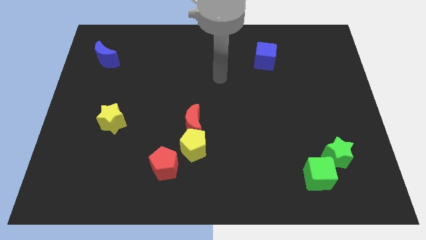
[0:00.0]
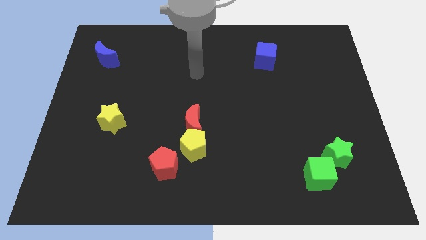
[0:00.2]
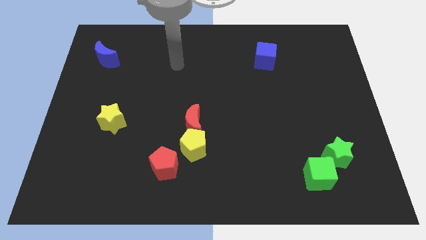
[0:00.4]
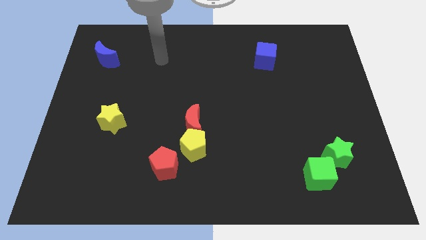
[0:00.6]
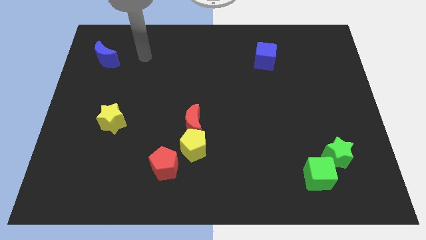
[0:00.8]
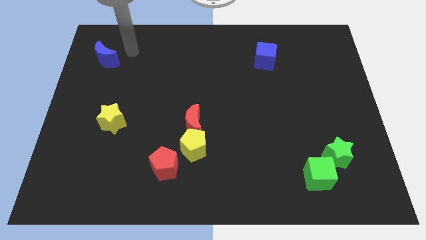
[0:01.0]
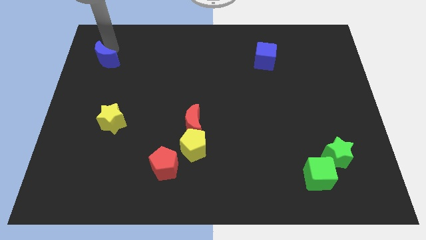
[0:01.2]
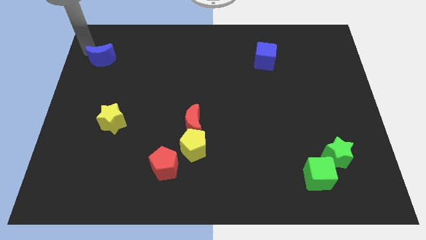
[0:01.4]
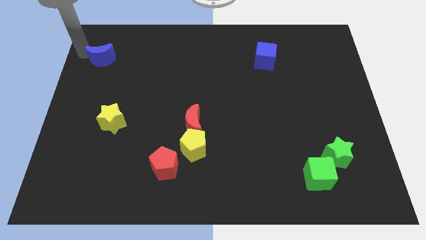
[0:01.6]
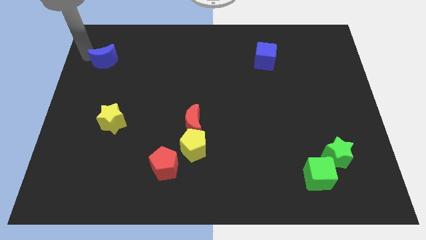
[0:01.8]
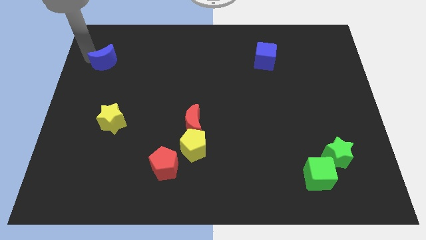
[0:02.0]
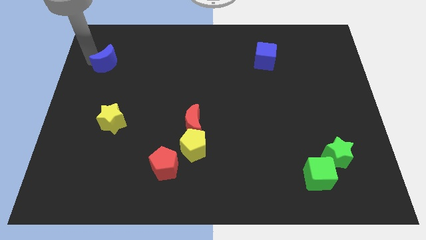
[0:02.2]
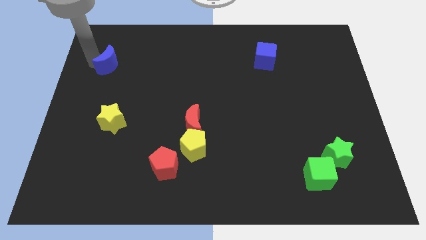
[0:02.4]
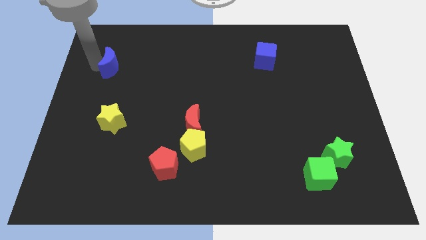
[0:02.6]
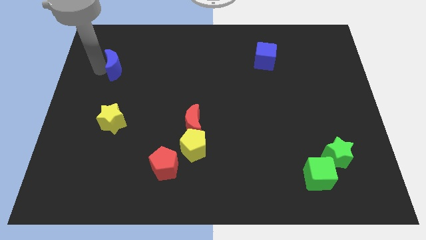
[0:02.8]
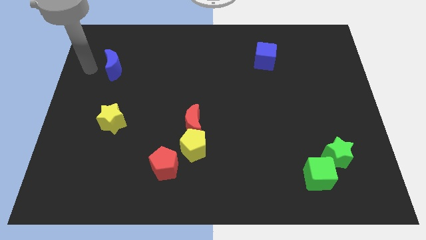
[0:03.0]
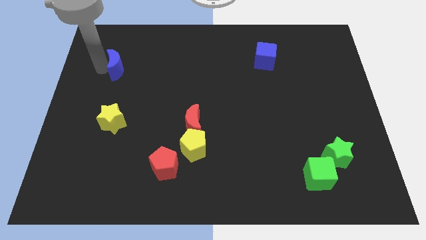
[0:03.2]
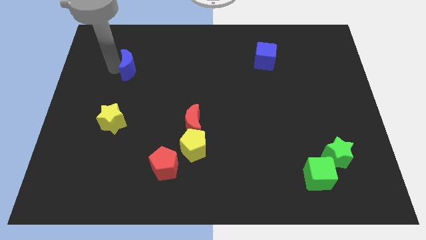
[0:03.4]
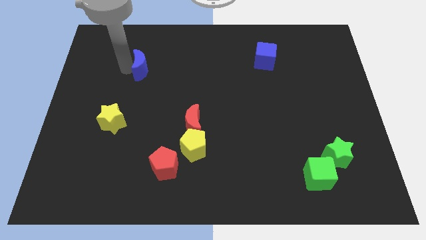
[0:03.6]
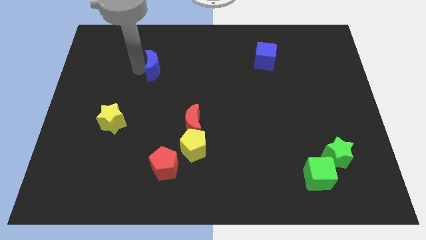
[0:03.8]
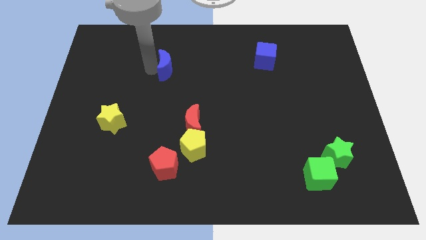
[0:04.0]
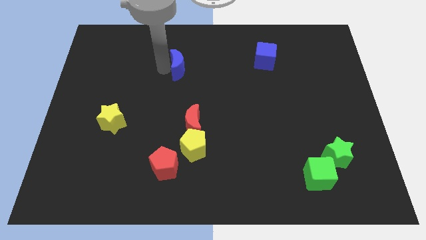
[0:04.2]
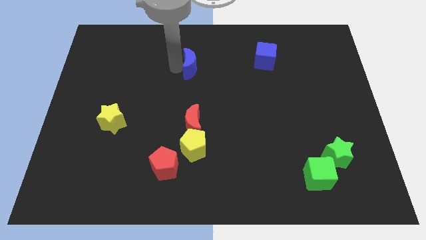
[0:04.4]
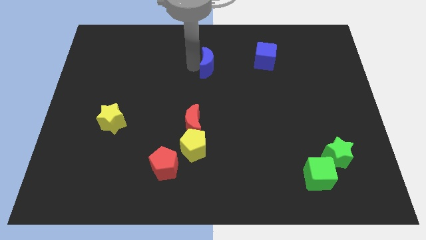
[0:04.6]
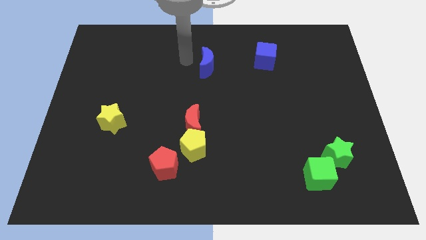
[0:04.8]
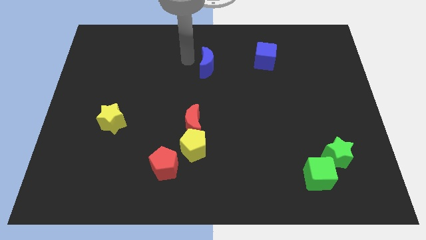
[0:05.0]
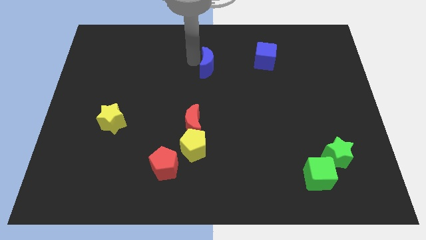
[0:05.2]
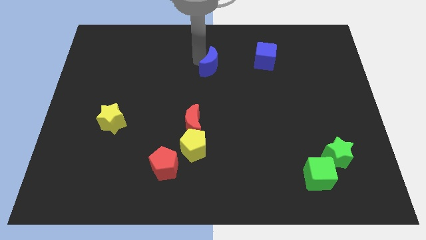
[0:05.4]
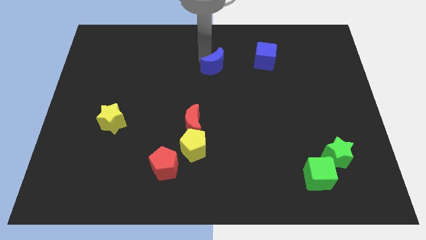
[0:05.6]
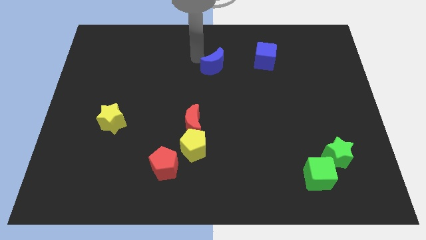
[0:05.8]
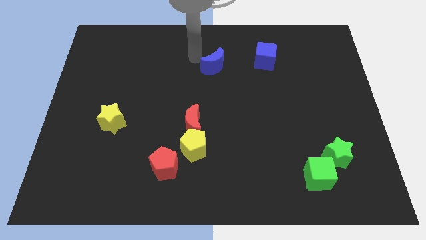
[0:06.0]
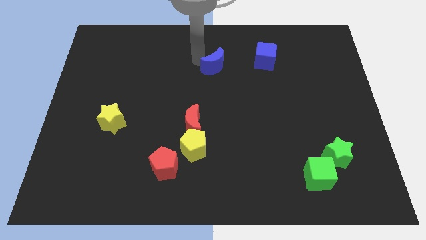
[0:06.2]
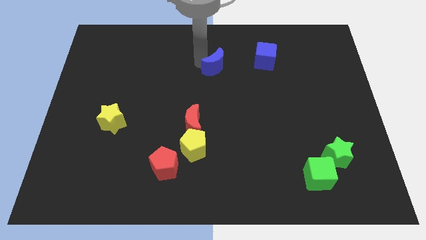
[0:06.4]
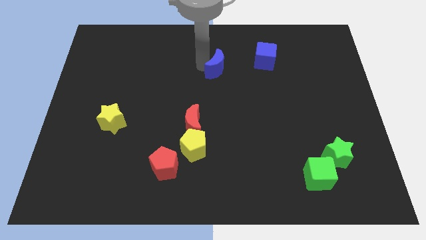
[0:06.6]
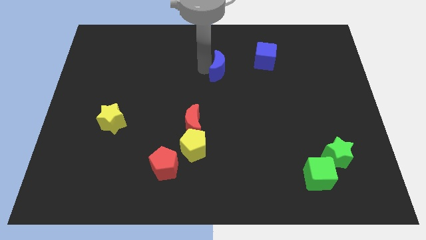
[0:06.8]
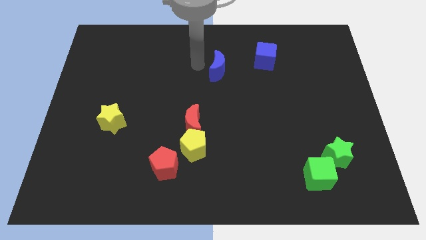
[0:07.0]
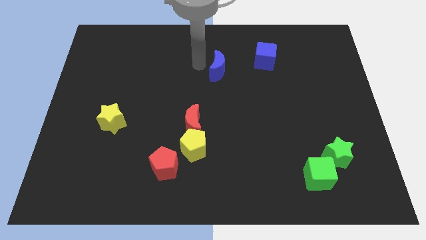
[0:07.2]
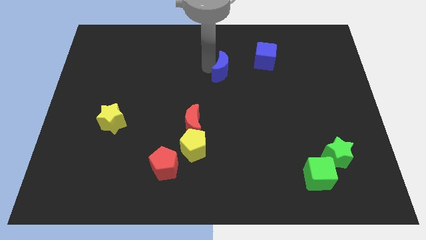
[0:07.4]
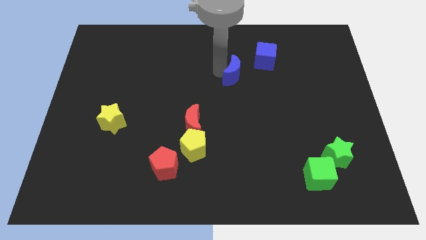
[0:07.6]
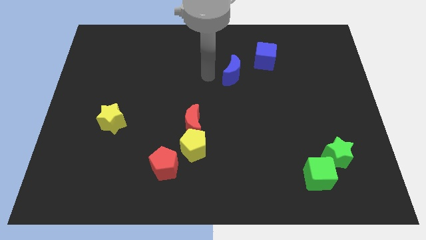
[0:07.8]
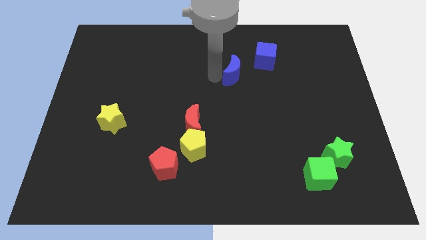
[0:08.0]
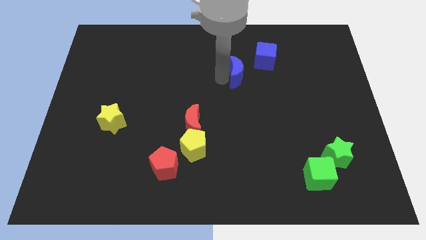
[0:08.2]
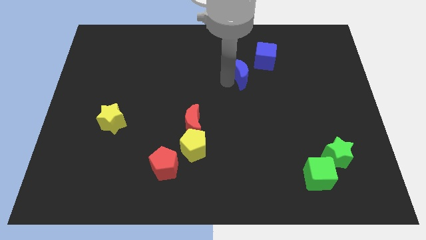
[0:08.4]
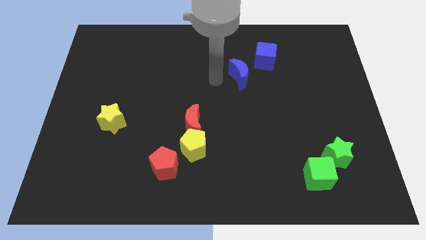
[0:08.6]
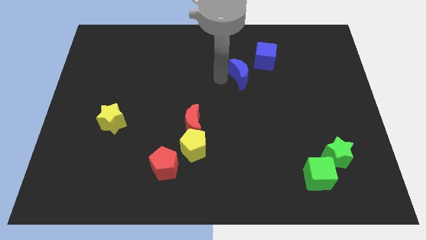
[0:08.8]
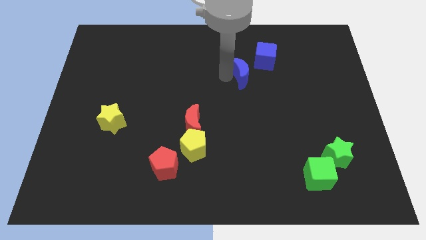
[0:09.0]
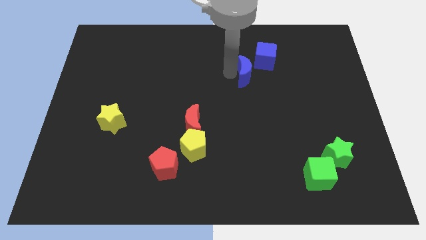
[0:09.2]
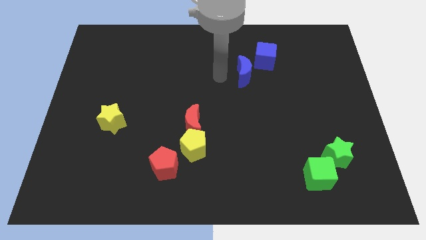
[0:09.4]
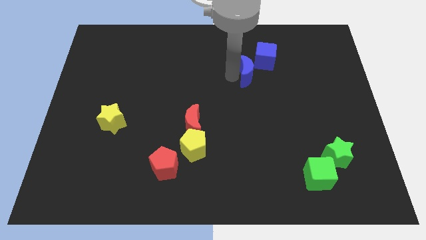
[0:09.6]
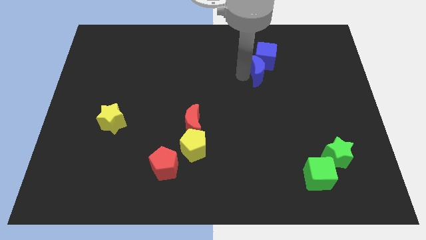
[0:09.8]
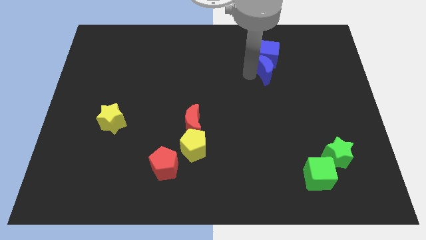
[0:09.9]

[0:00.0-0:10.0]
push the blue moon to the bottom right of the blue cube

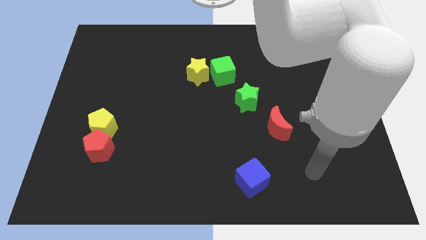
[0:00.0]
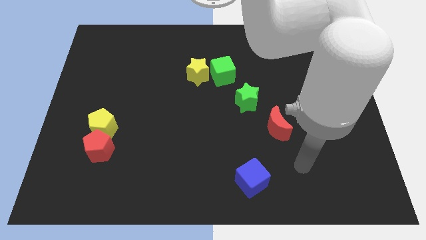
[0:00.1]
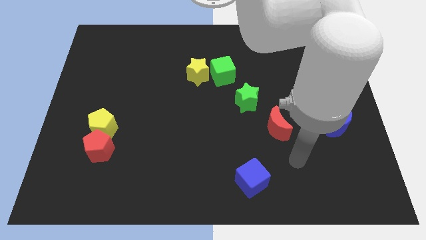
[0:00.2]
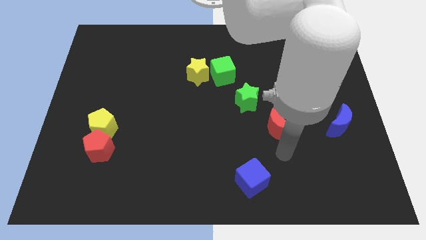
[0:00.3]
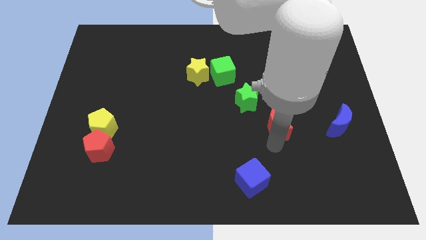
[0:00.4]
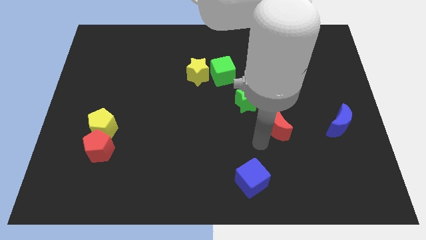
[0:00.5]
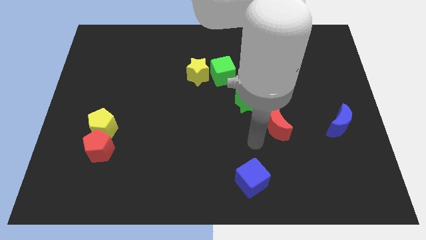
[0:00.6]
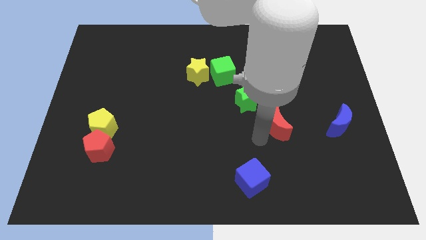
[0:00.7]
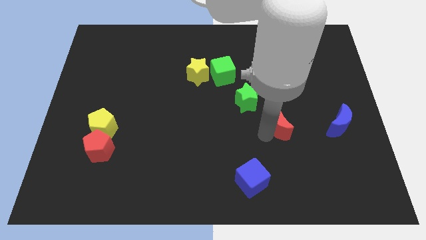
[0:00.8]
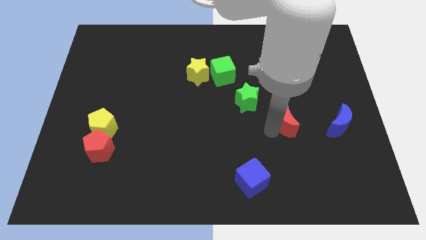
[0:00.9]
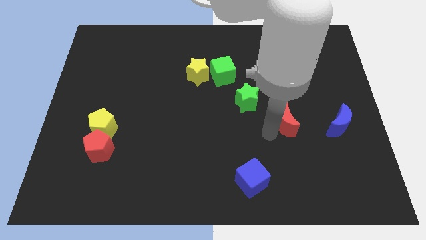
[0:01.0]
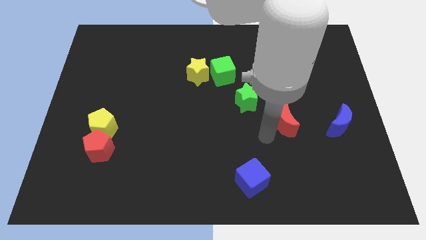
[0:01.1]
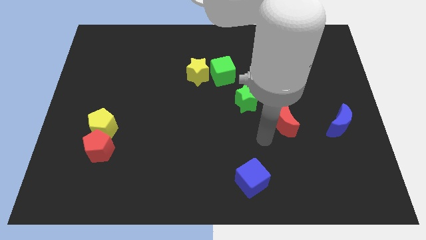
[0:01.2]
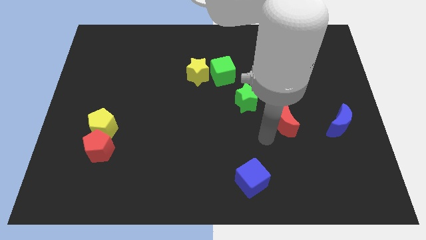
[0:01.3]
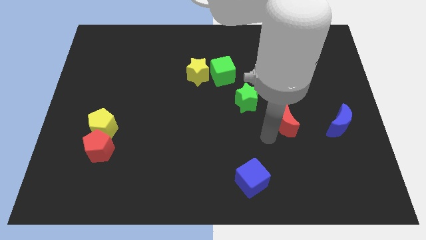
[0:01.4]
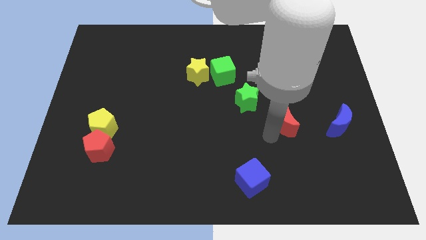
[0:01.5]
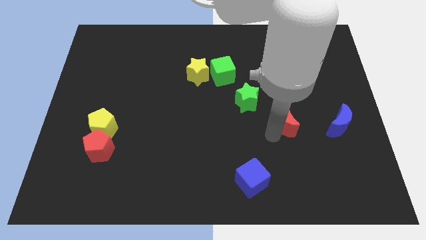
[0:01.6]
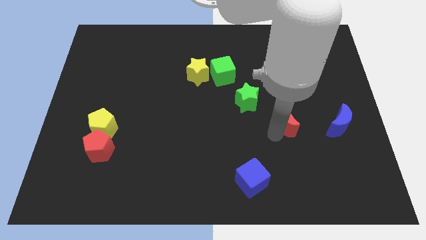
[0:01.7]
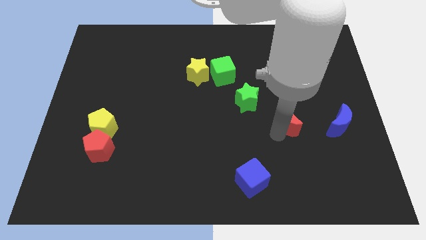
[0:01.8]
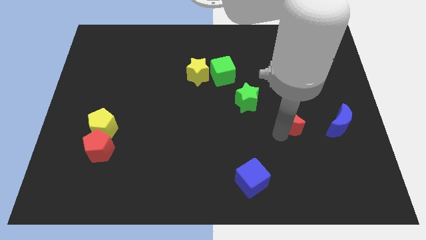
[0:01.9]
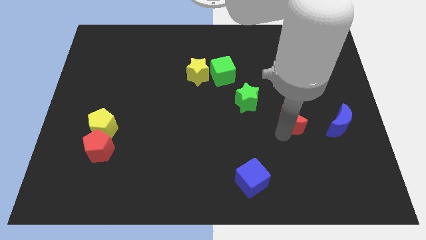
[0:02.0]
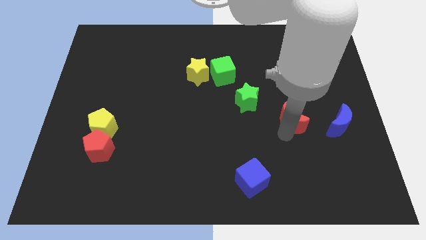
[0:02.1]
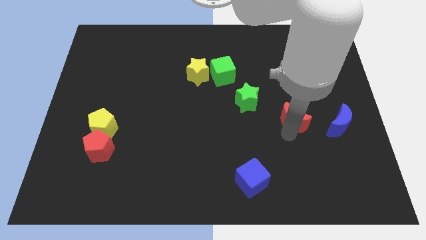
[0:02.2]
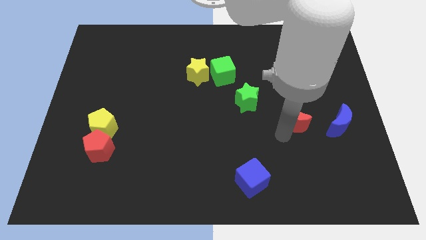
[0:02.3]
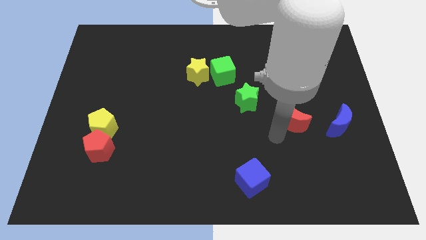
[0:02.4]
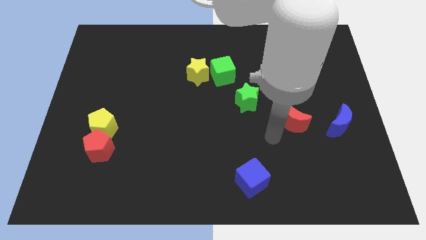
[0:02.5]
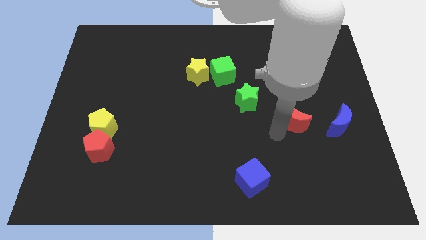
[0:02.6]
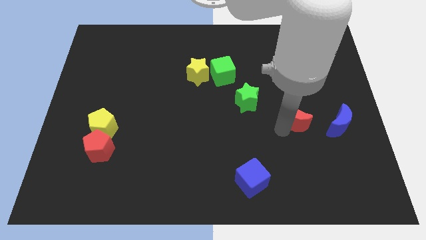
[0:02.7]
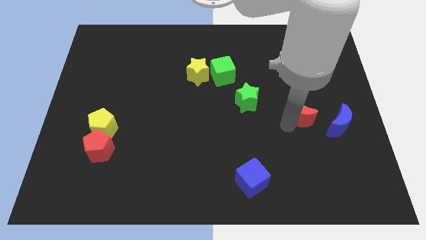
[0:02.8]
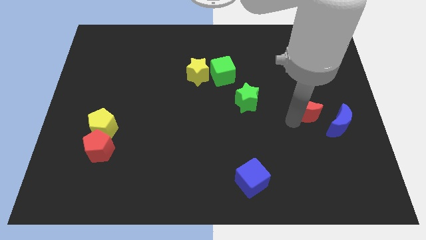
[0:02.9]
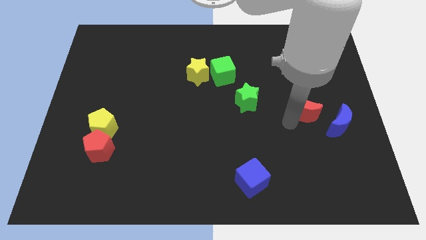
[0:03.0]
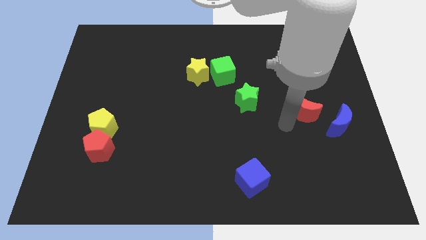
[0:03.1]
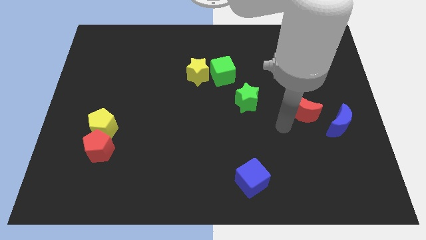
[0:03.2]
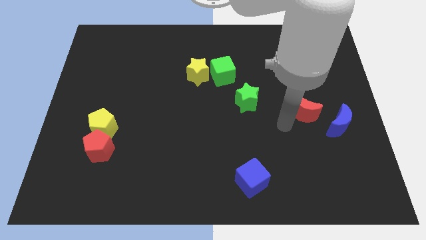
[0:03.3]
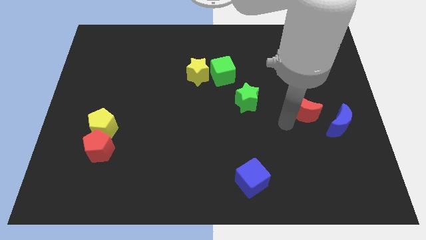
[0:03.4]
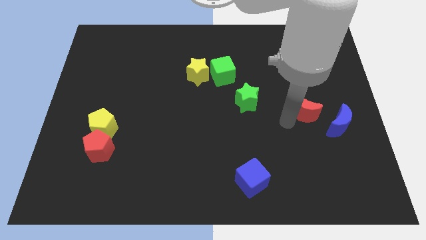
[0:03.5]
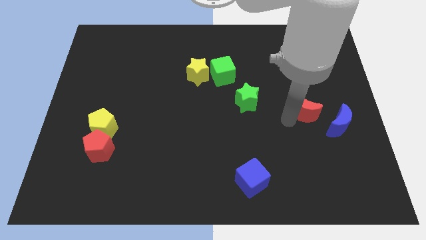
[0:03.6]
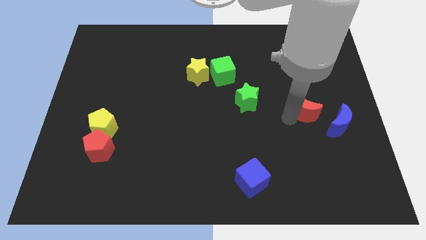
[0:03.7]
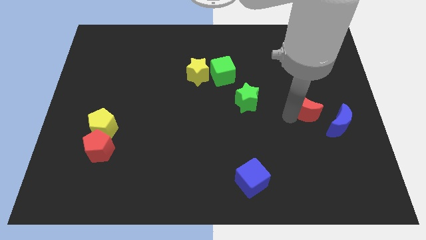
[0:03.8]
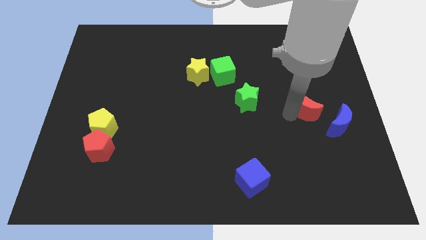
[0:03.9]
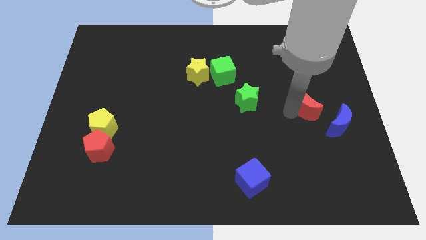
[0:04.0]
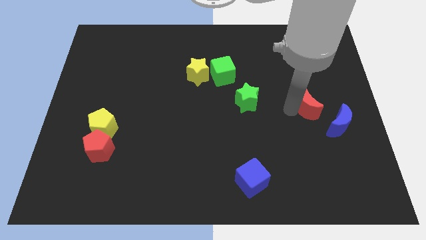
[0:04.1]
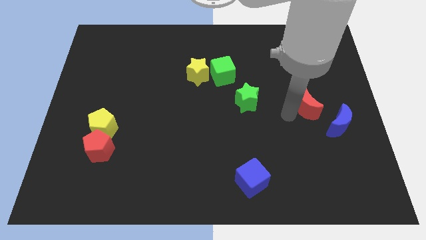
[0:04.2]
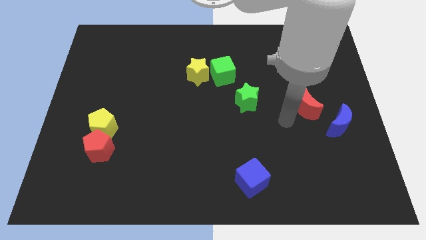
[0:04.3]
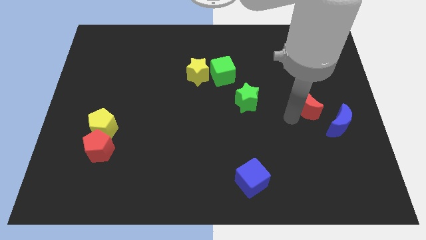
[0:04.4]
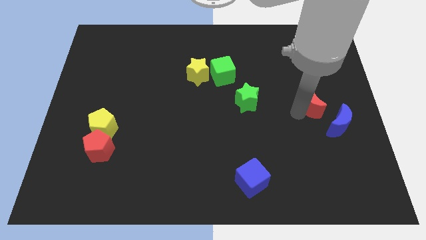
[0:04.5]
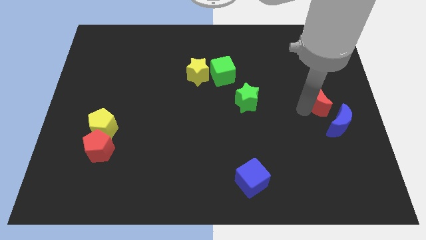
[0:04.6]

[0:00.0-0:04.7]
push the red moon to the top of the blue moon
